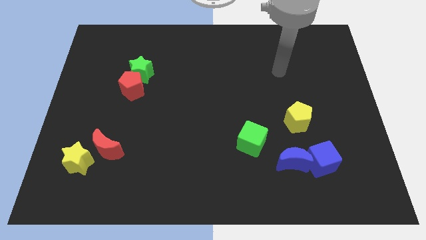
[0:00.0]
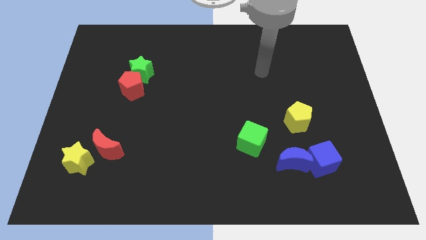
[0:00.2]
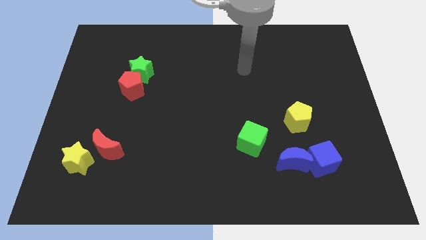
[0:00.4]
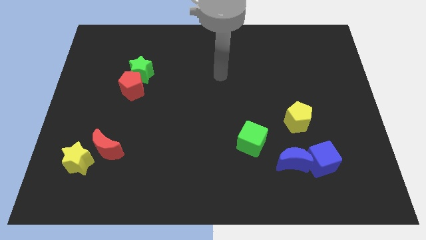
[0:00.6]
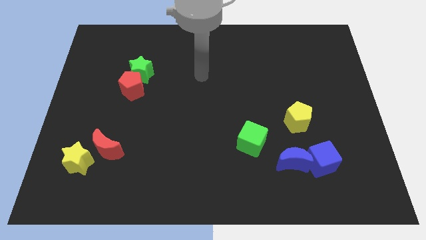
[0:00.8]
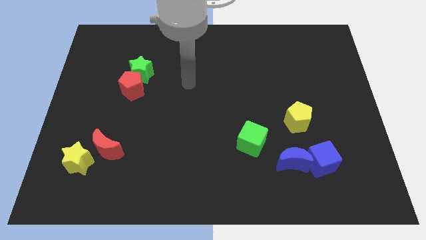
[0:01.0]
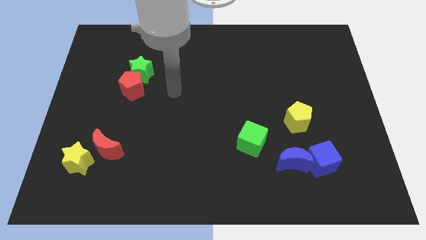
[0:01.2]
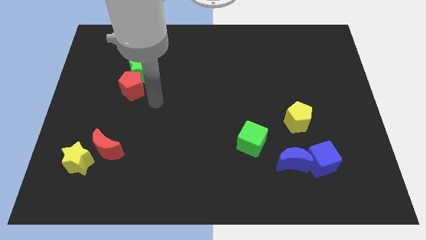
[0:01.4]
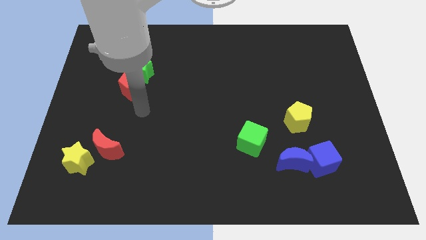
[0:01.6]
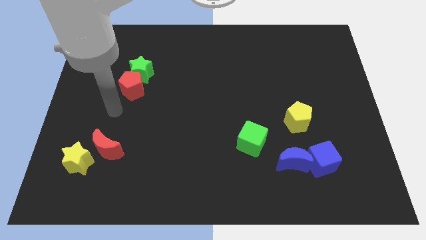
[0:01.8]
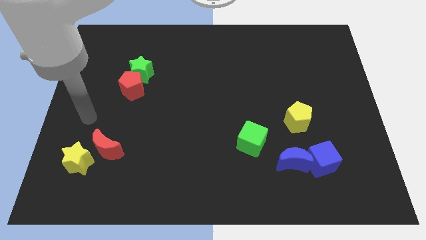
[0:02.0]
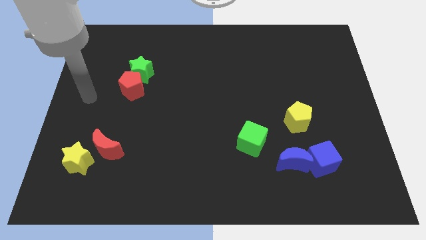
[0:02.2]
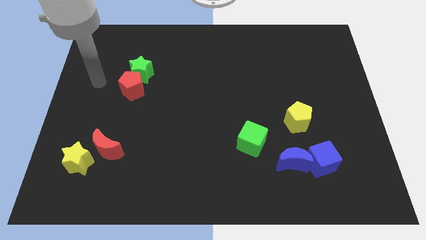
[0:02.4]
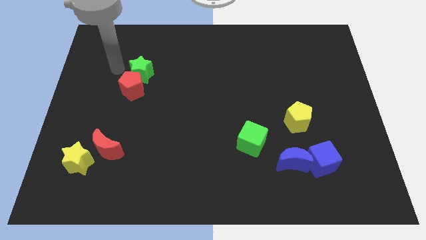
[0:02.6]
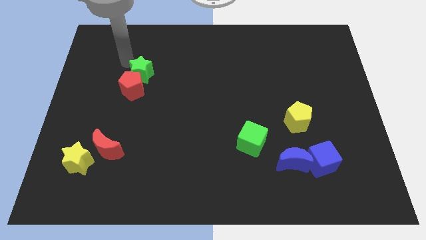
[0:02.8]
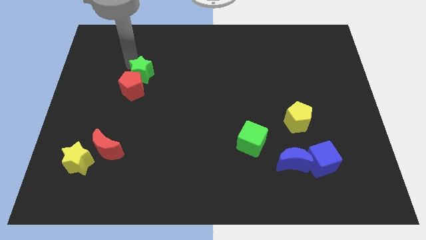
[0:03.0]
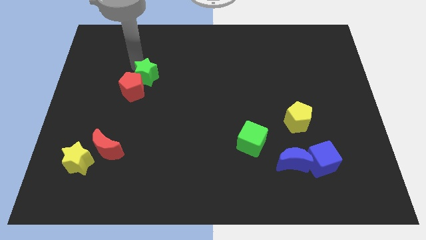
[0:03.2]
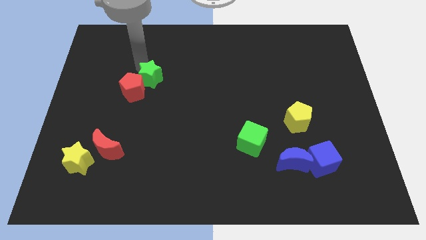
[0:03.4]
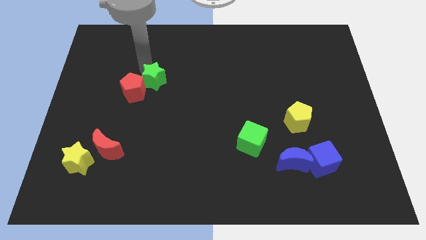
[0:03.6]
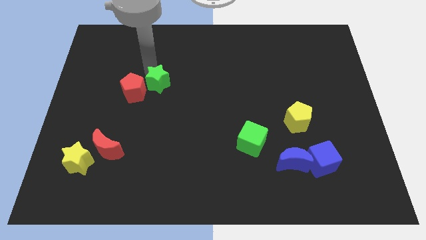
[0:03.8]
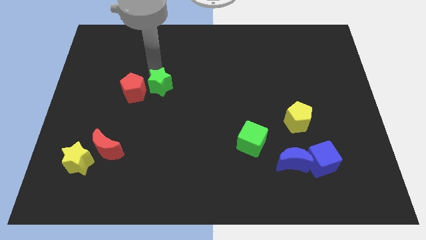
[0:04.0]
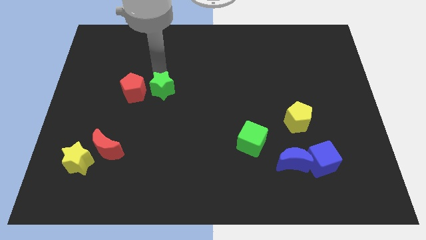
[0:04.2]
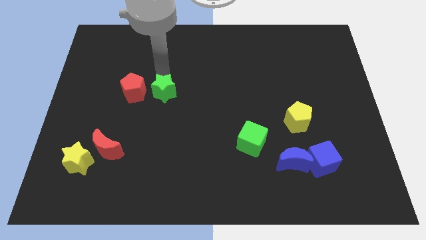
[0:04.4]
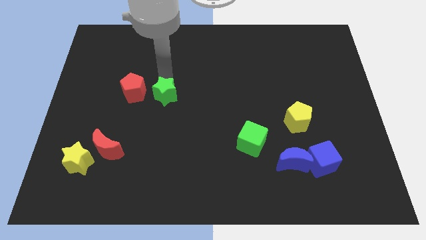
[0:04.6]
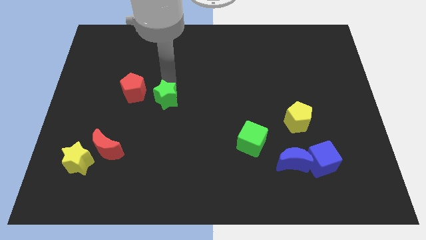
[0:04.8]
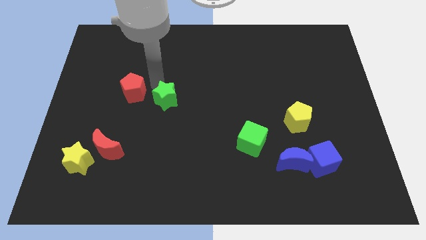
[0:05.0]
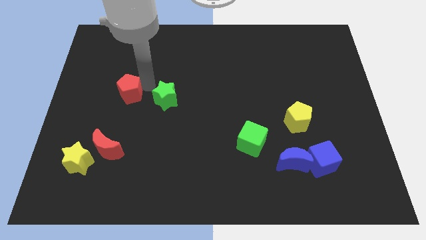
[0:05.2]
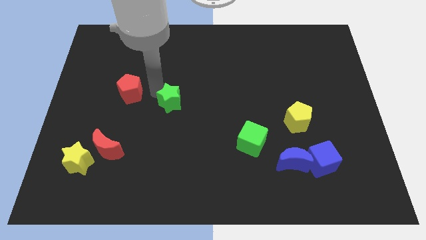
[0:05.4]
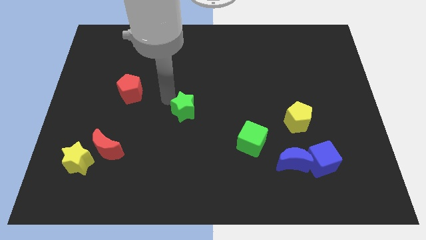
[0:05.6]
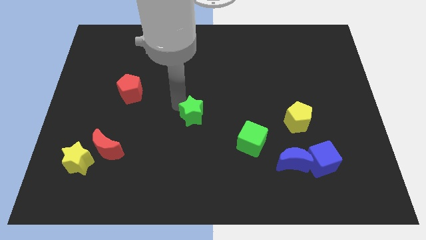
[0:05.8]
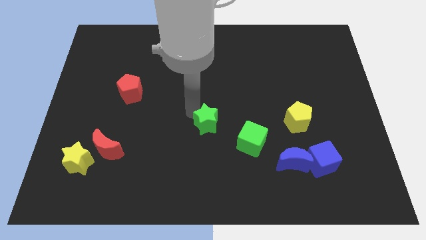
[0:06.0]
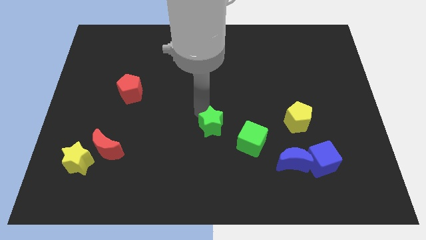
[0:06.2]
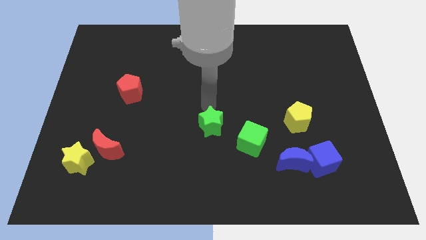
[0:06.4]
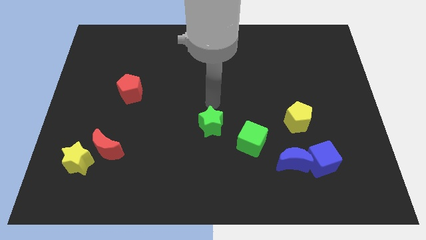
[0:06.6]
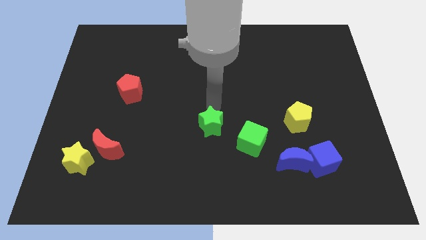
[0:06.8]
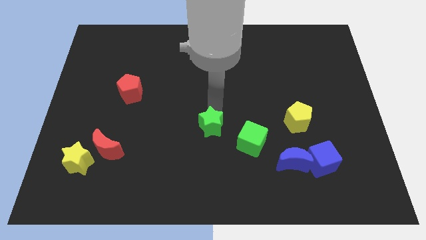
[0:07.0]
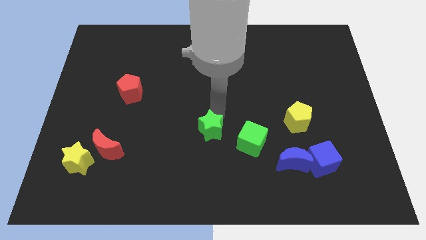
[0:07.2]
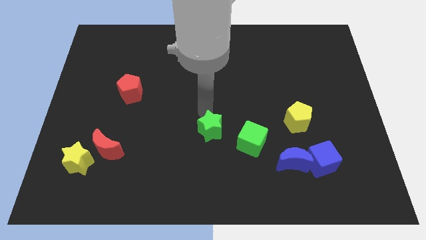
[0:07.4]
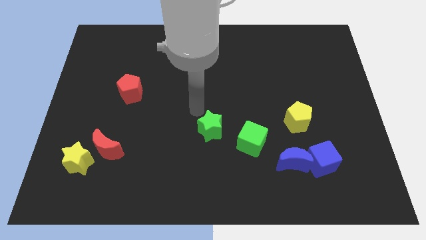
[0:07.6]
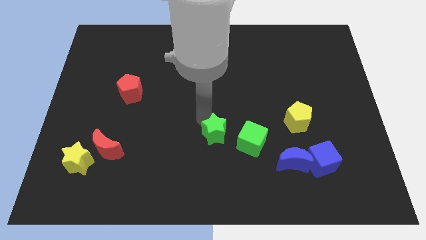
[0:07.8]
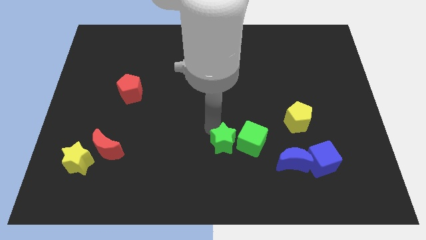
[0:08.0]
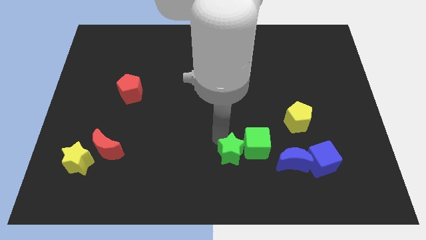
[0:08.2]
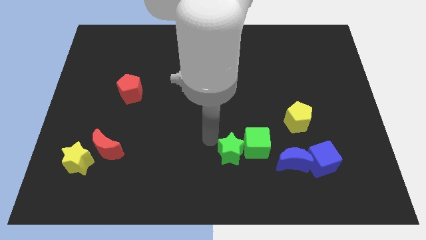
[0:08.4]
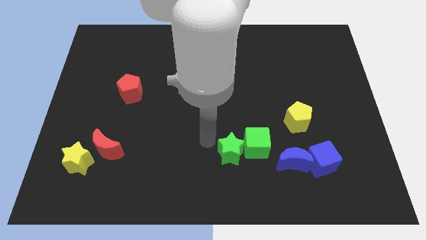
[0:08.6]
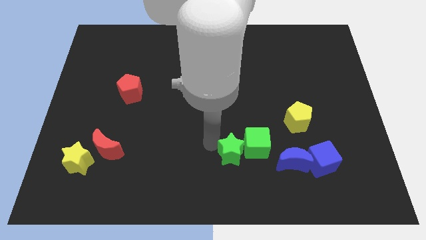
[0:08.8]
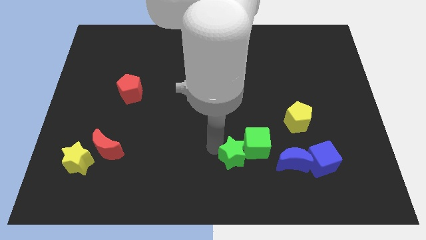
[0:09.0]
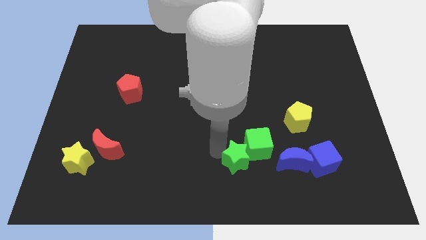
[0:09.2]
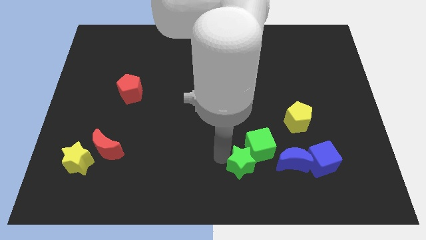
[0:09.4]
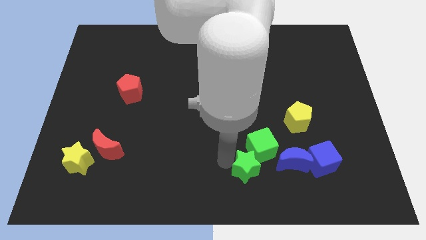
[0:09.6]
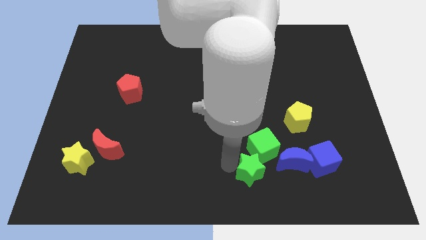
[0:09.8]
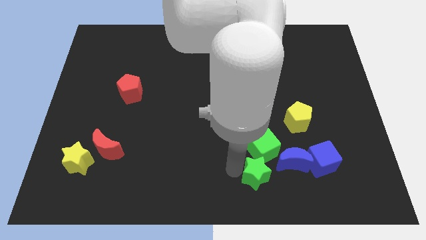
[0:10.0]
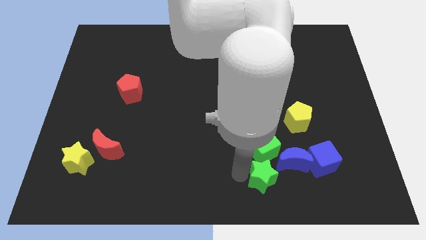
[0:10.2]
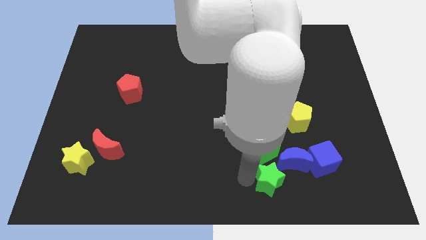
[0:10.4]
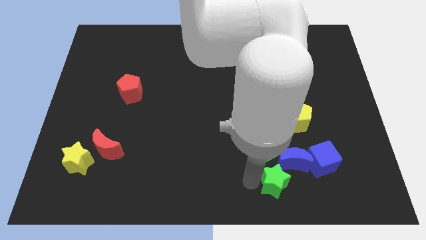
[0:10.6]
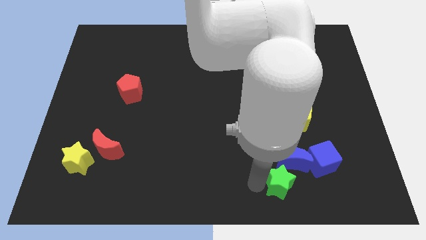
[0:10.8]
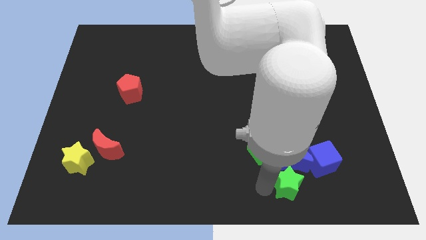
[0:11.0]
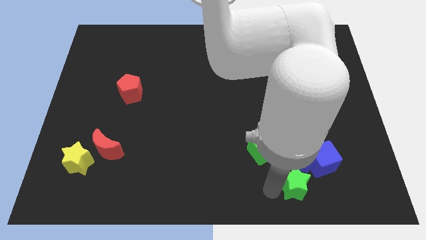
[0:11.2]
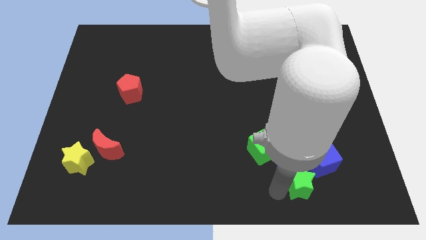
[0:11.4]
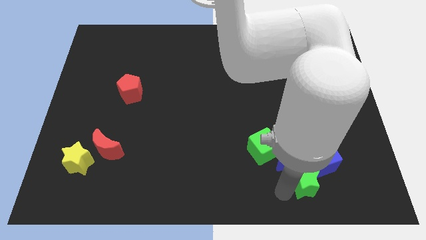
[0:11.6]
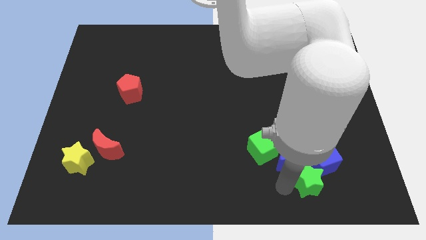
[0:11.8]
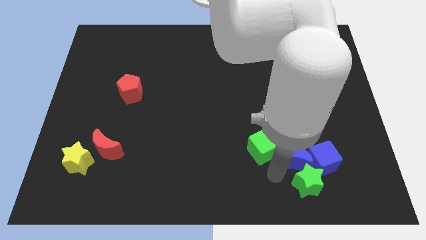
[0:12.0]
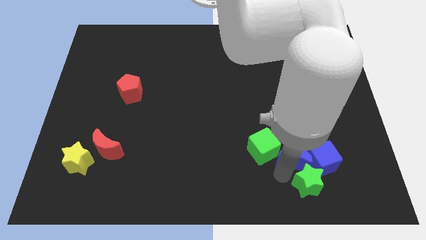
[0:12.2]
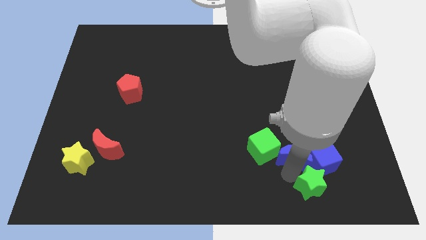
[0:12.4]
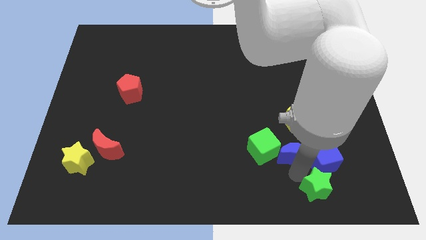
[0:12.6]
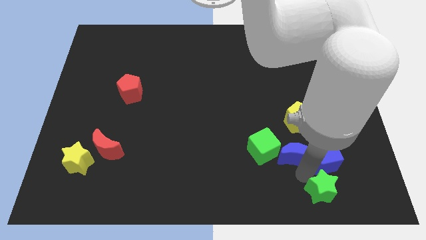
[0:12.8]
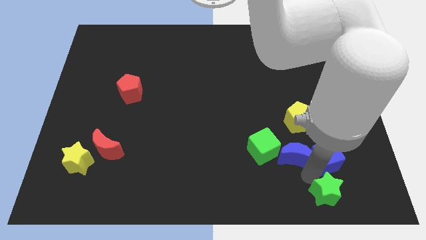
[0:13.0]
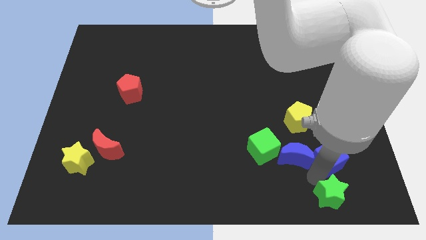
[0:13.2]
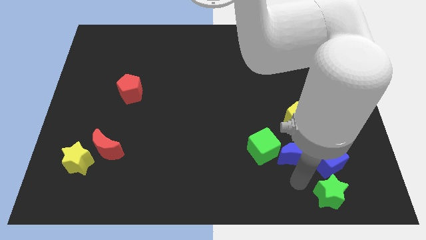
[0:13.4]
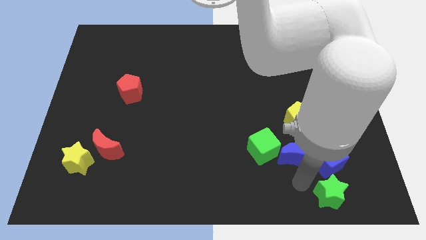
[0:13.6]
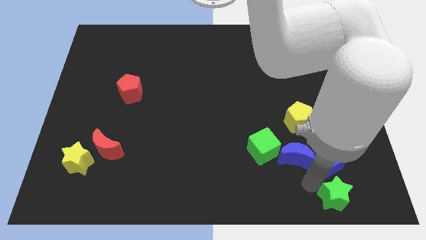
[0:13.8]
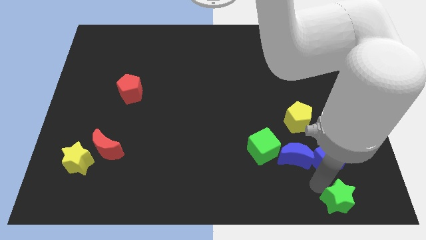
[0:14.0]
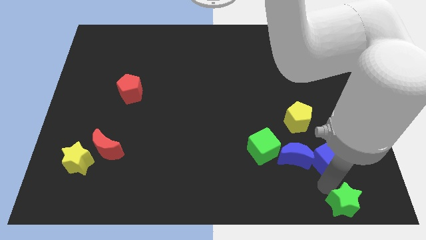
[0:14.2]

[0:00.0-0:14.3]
slide the green star to the lower right corner
